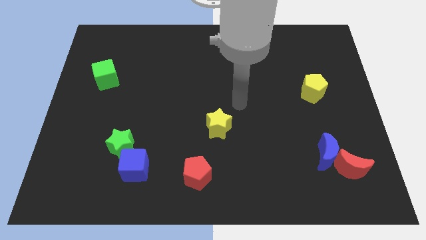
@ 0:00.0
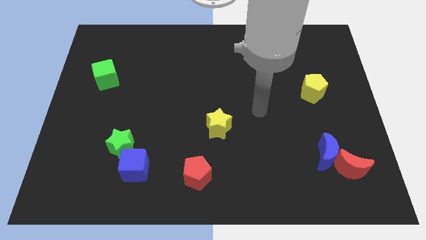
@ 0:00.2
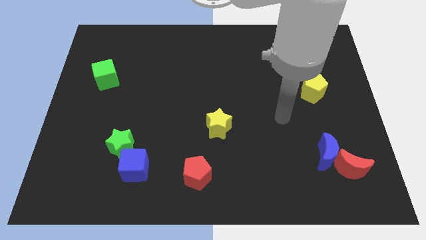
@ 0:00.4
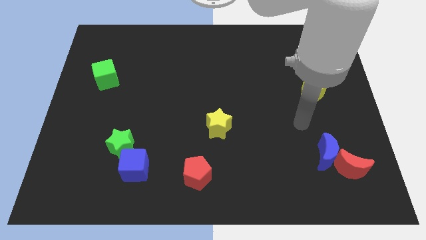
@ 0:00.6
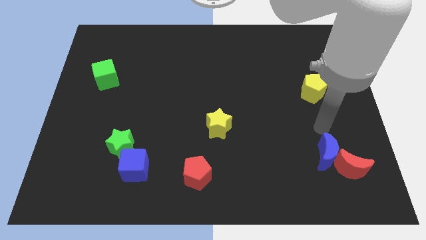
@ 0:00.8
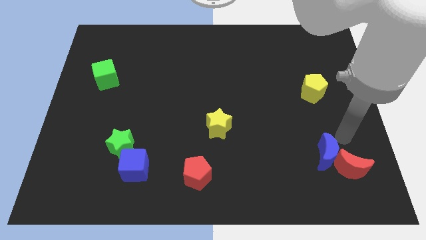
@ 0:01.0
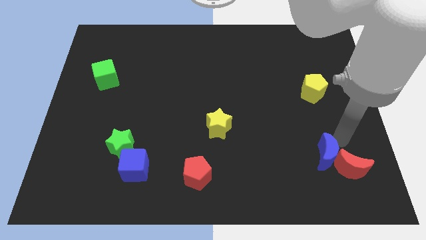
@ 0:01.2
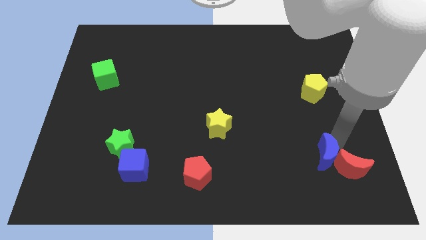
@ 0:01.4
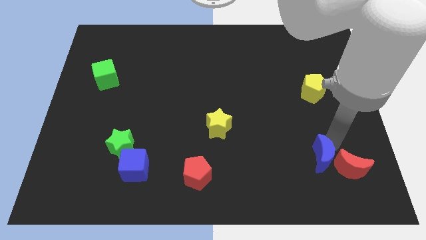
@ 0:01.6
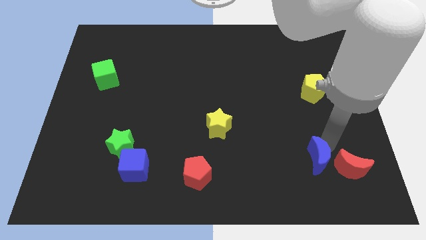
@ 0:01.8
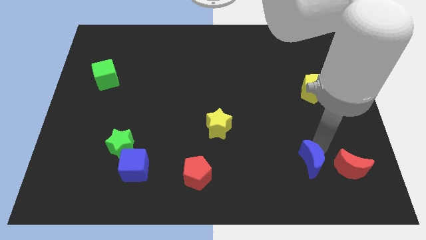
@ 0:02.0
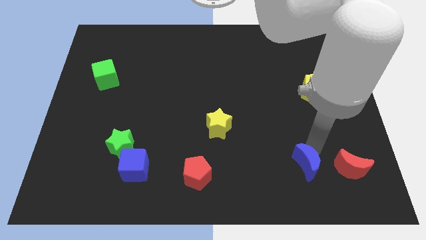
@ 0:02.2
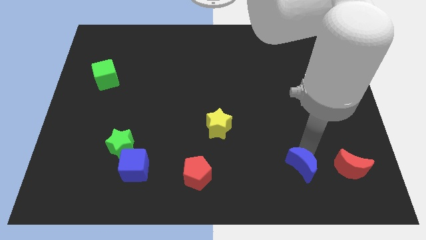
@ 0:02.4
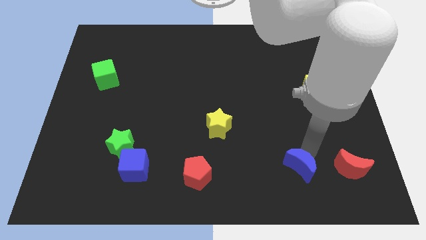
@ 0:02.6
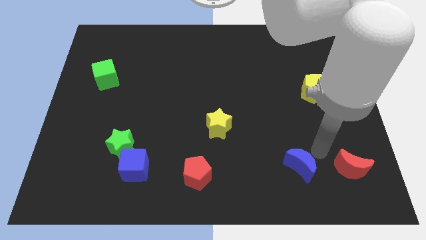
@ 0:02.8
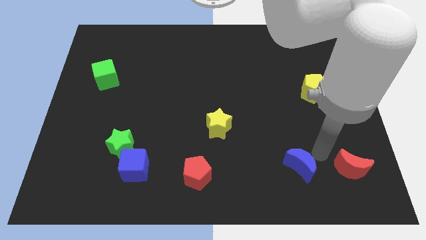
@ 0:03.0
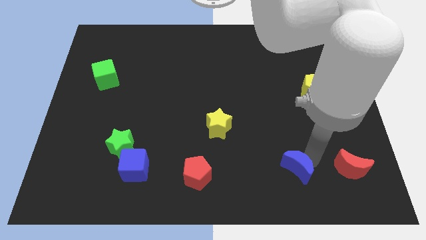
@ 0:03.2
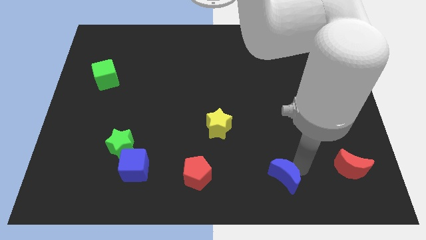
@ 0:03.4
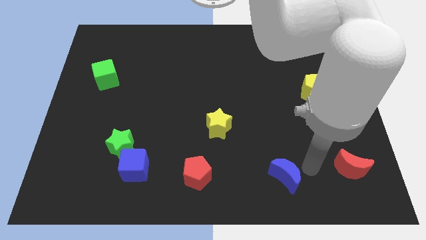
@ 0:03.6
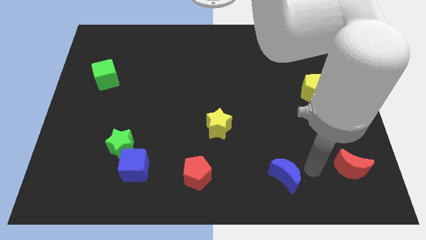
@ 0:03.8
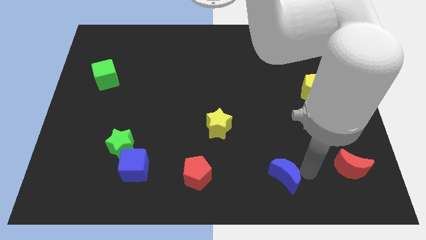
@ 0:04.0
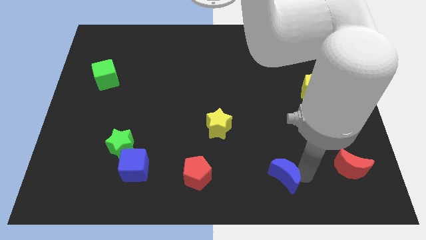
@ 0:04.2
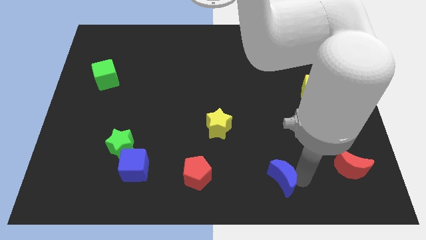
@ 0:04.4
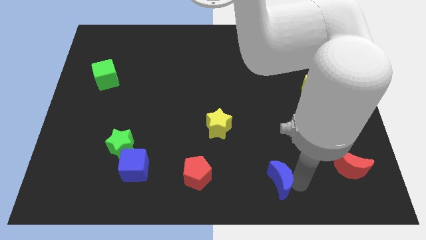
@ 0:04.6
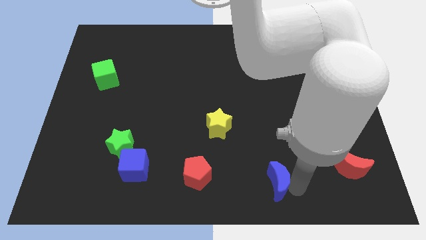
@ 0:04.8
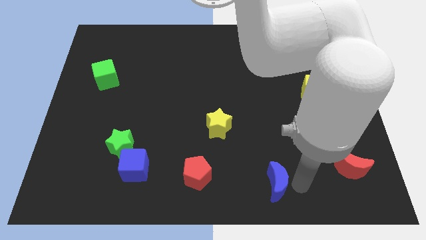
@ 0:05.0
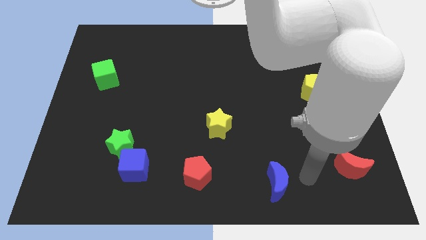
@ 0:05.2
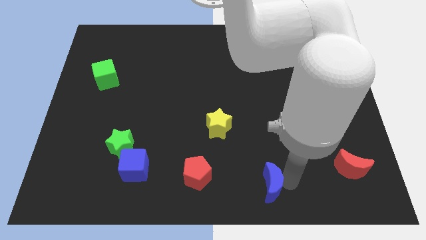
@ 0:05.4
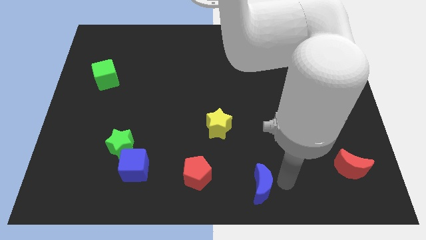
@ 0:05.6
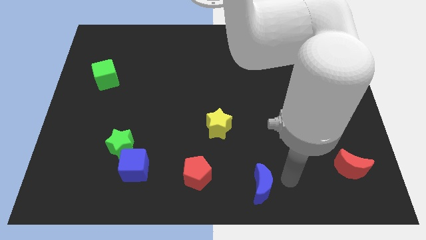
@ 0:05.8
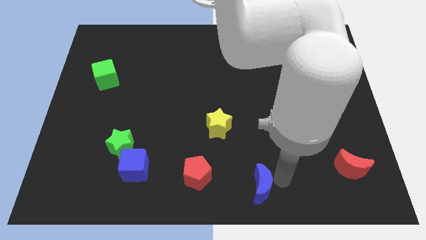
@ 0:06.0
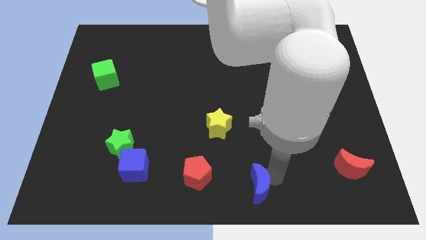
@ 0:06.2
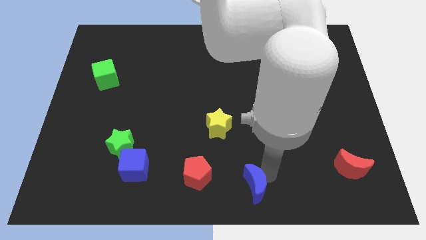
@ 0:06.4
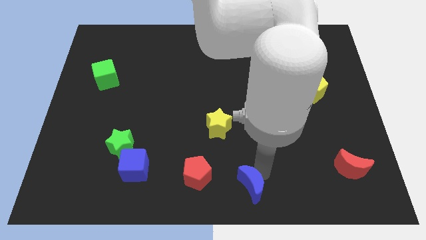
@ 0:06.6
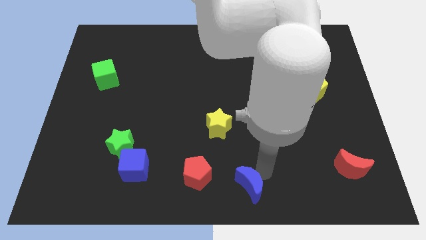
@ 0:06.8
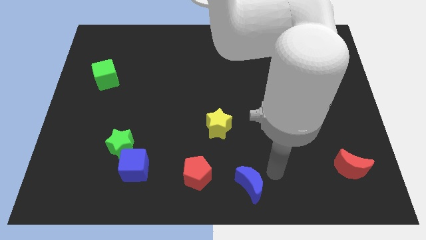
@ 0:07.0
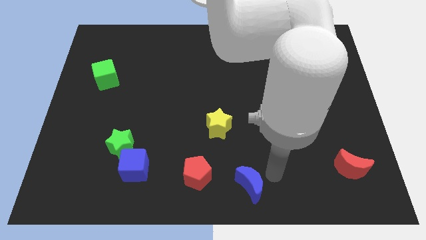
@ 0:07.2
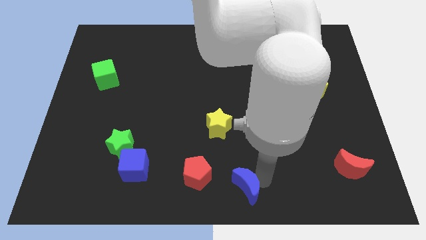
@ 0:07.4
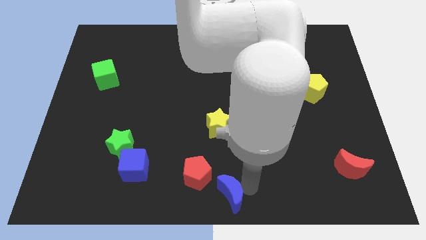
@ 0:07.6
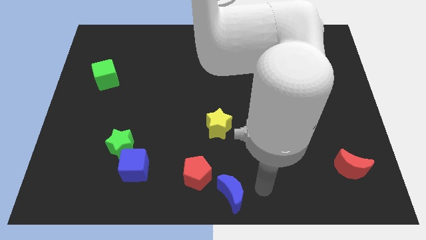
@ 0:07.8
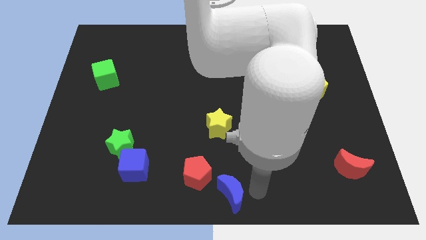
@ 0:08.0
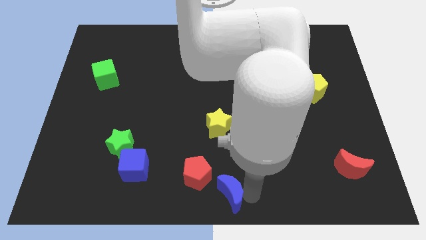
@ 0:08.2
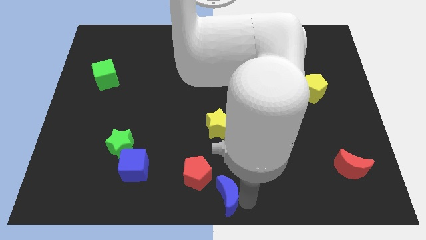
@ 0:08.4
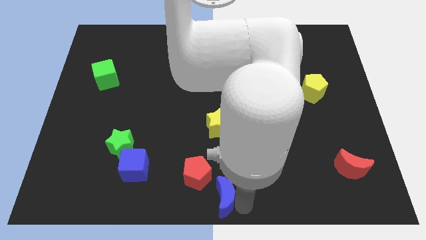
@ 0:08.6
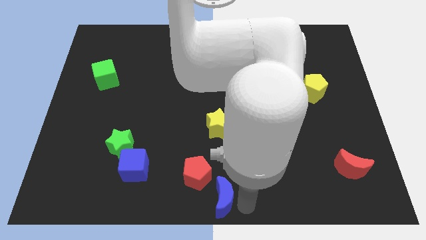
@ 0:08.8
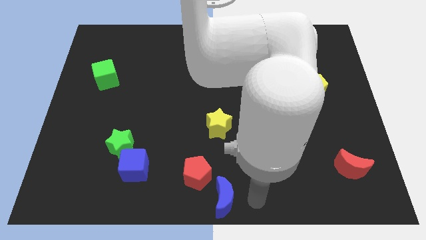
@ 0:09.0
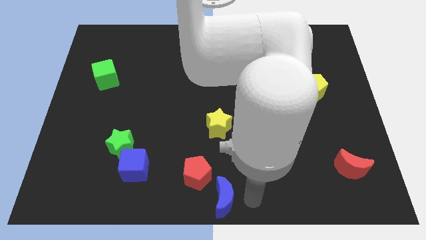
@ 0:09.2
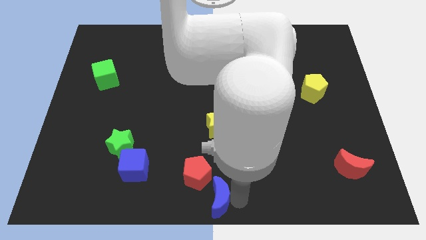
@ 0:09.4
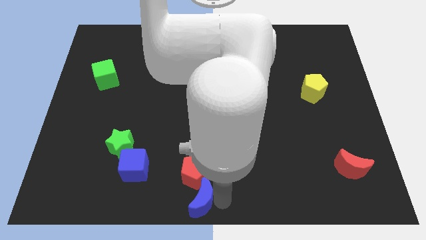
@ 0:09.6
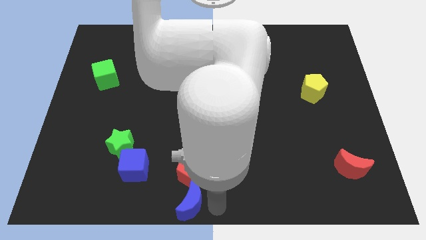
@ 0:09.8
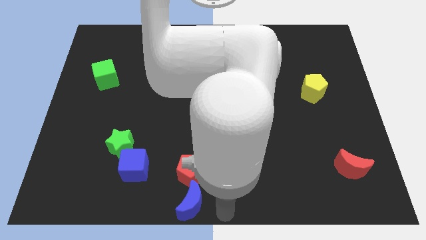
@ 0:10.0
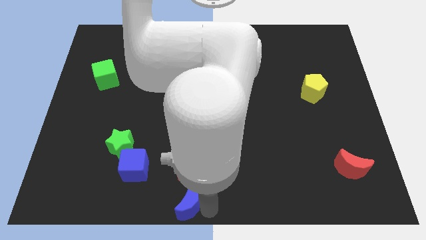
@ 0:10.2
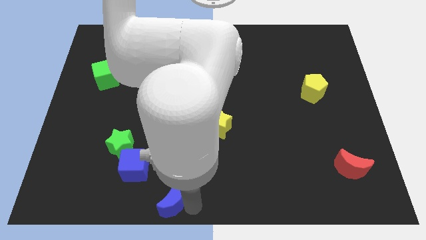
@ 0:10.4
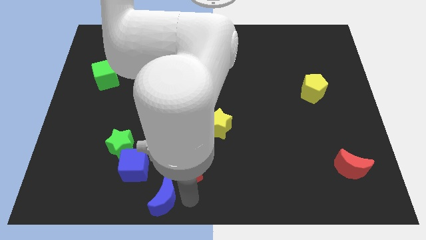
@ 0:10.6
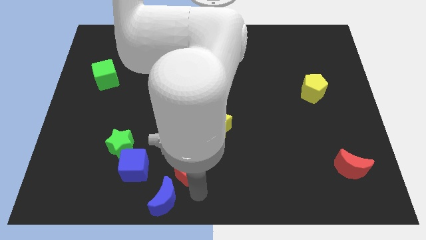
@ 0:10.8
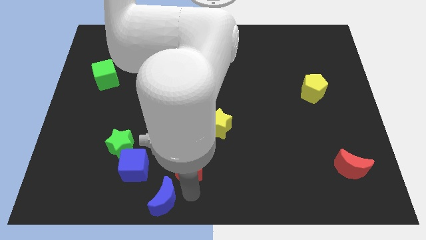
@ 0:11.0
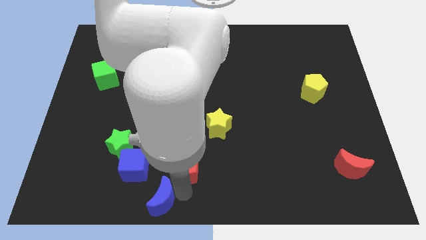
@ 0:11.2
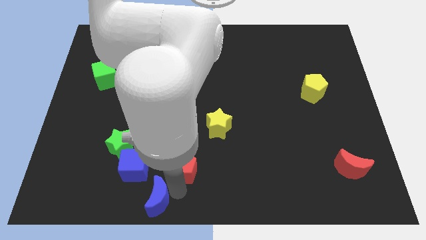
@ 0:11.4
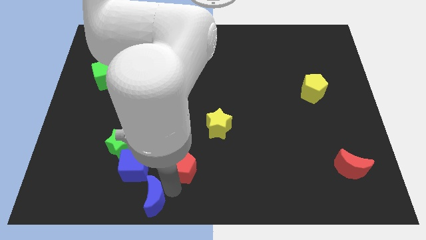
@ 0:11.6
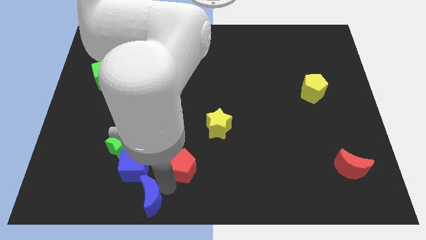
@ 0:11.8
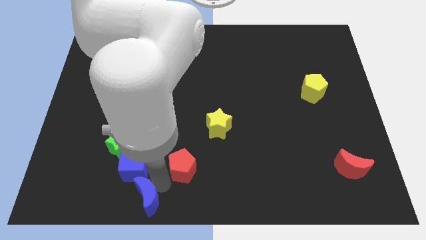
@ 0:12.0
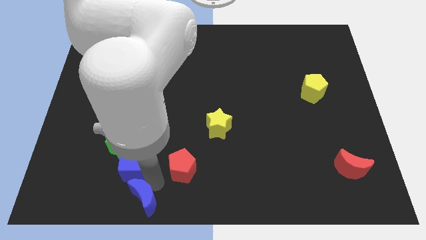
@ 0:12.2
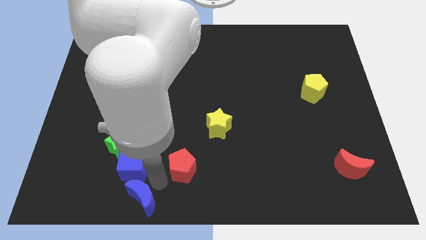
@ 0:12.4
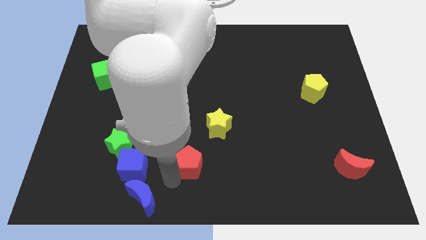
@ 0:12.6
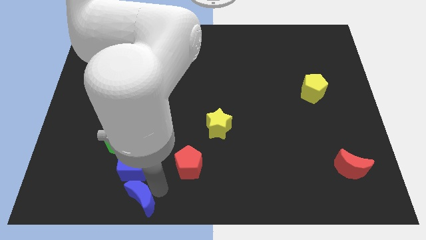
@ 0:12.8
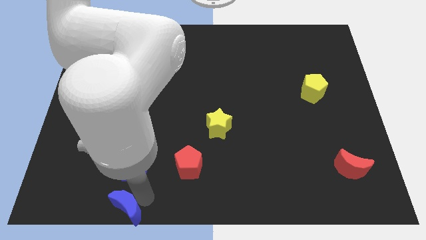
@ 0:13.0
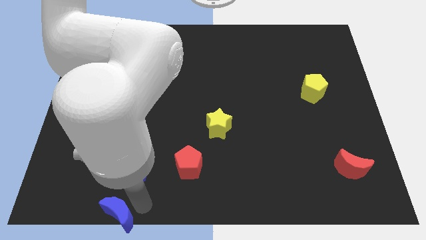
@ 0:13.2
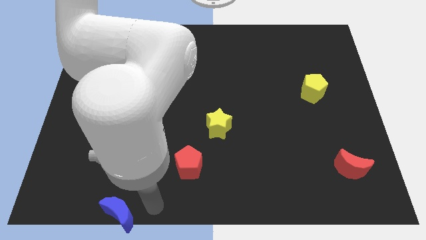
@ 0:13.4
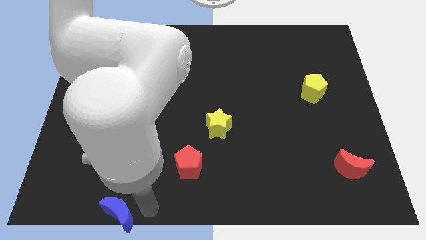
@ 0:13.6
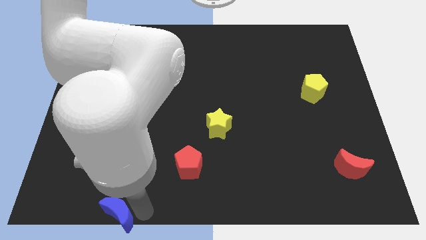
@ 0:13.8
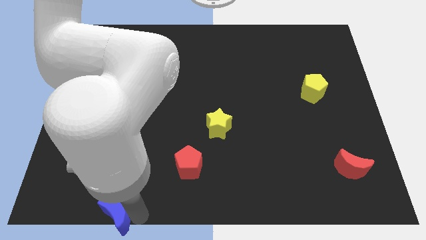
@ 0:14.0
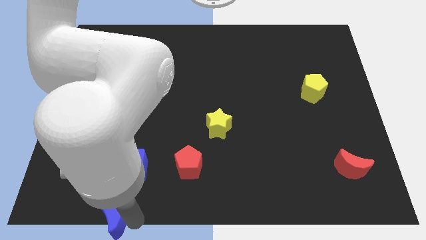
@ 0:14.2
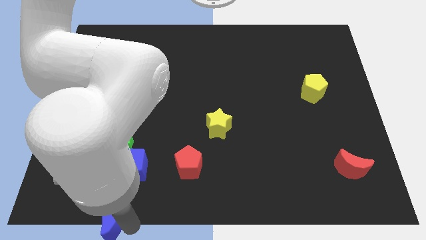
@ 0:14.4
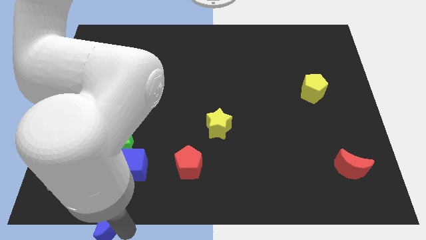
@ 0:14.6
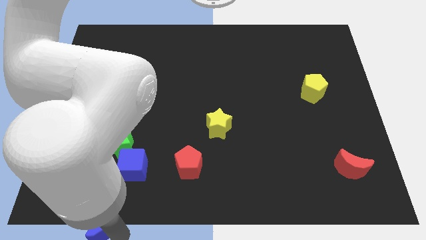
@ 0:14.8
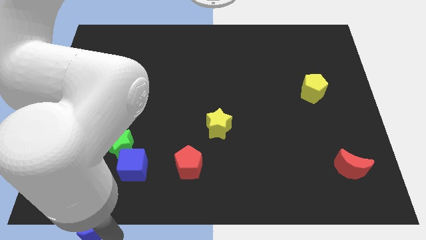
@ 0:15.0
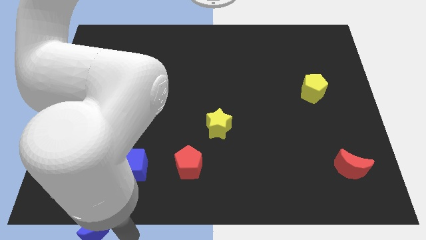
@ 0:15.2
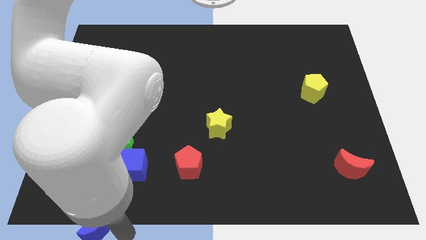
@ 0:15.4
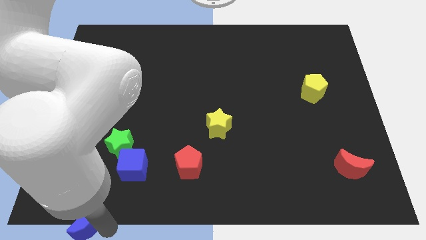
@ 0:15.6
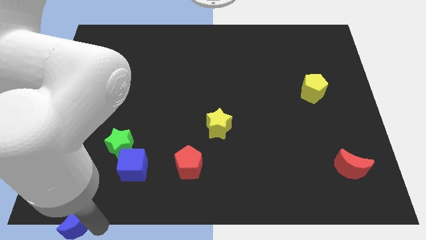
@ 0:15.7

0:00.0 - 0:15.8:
push the blue moon to the bottom left of the board
